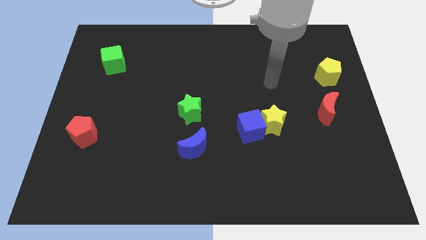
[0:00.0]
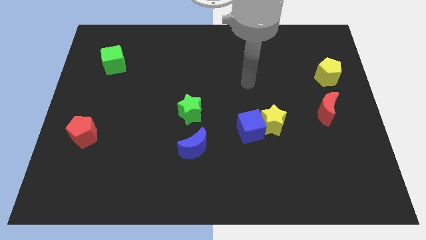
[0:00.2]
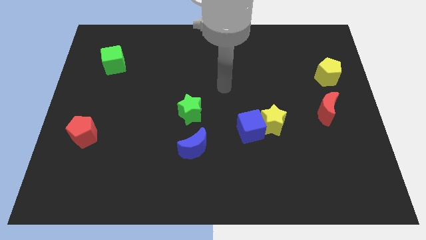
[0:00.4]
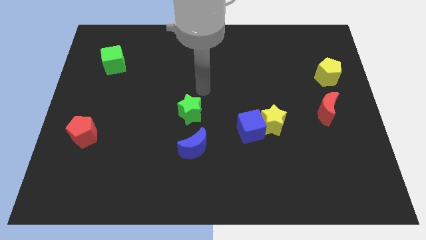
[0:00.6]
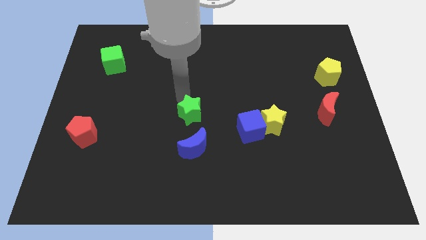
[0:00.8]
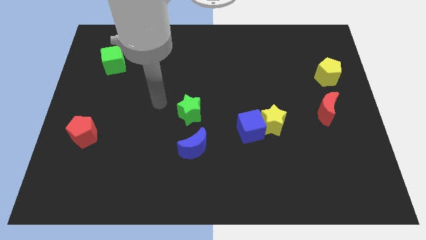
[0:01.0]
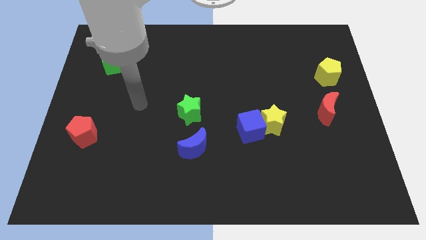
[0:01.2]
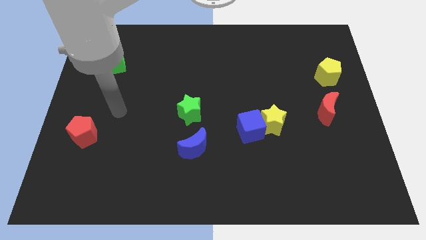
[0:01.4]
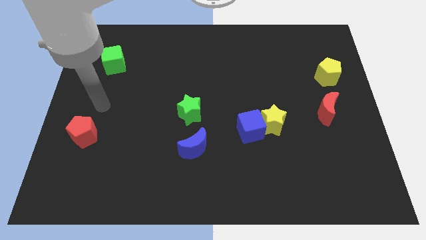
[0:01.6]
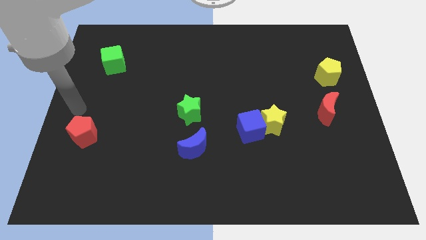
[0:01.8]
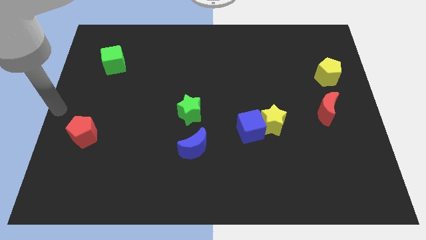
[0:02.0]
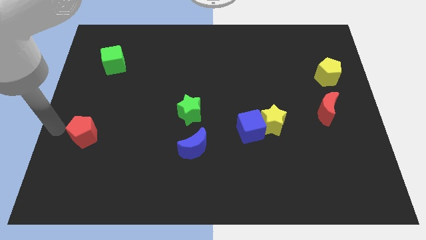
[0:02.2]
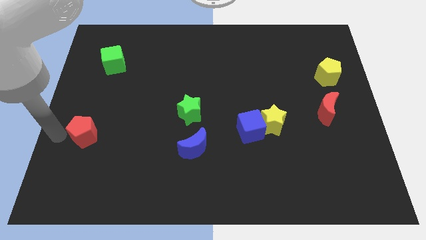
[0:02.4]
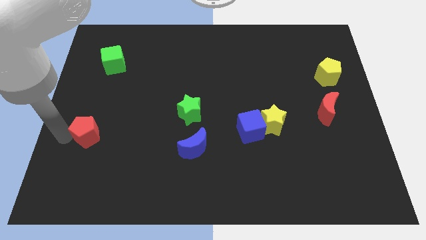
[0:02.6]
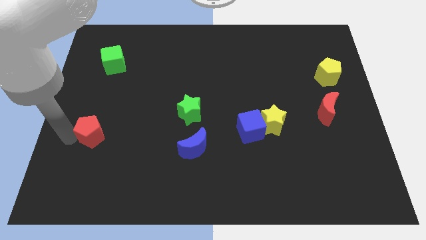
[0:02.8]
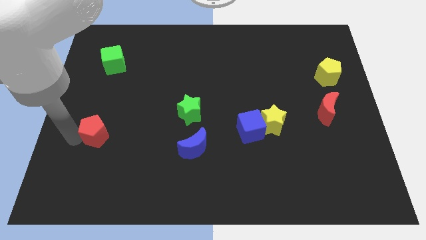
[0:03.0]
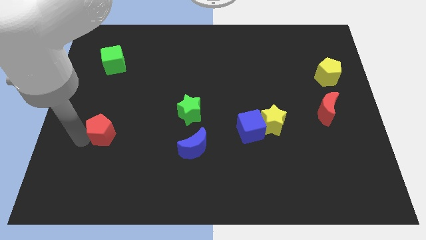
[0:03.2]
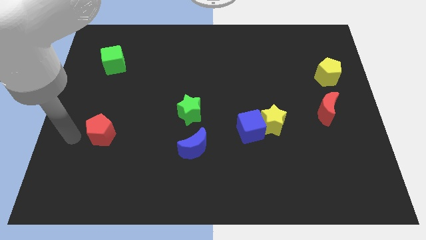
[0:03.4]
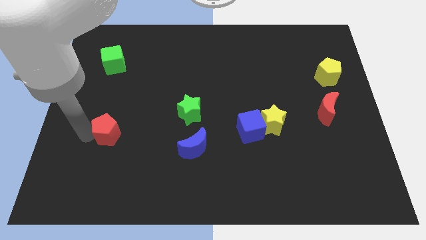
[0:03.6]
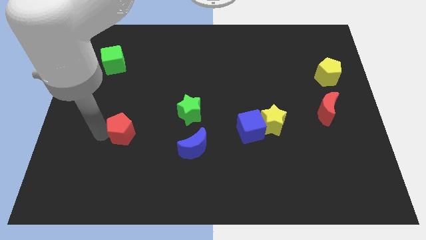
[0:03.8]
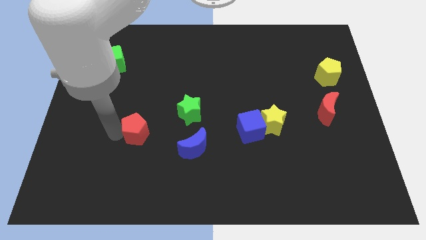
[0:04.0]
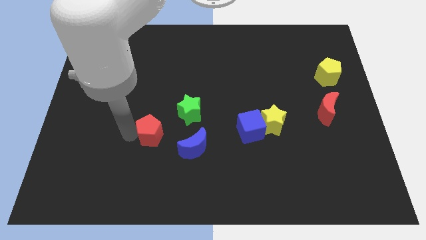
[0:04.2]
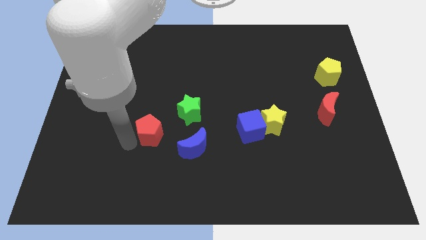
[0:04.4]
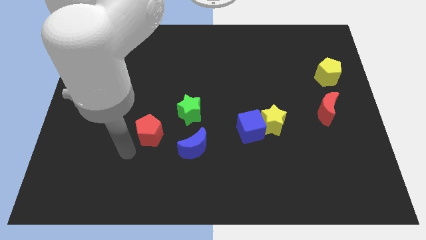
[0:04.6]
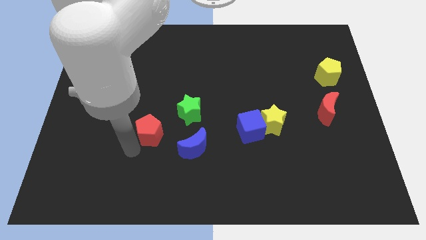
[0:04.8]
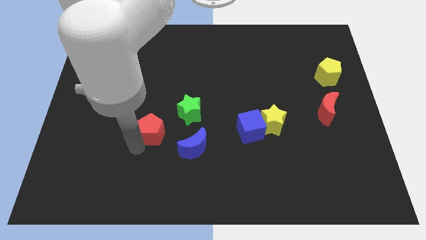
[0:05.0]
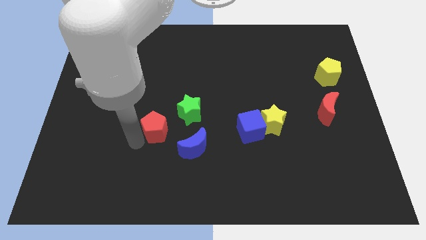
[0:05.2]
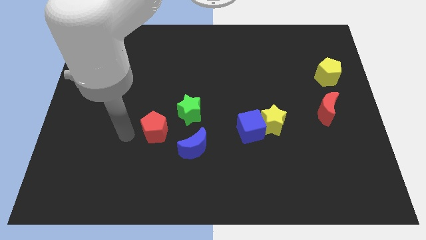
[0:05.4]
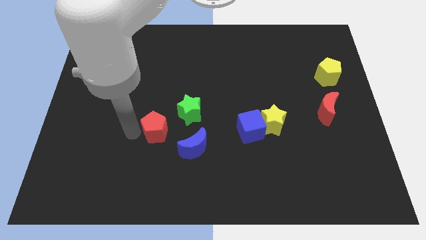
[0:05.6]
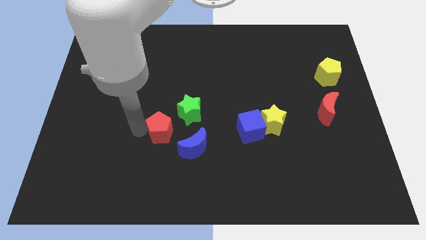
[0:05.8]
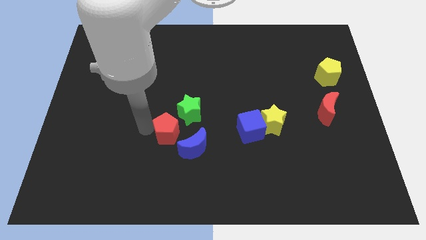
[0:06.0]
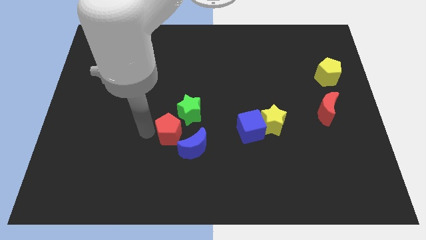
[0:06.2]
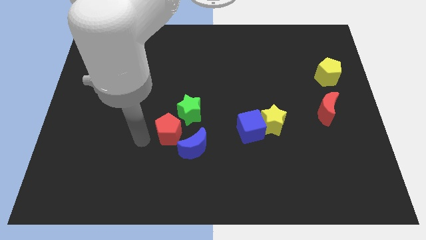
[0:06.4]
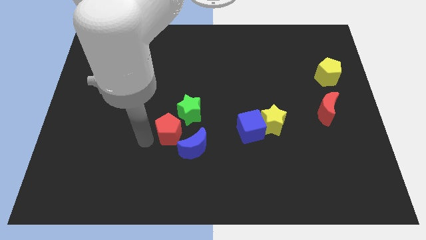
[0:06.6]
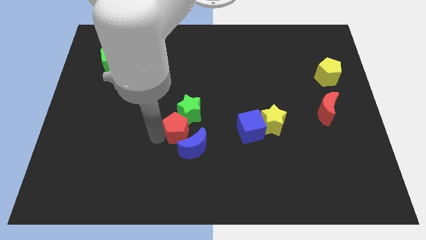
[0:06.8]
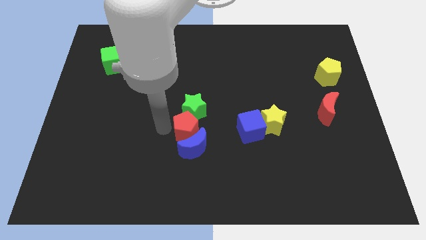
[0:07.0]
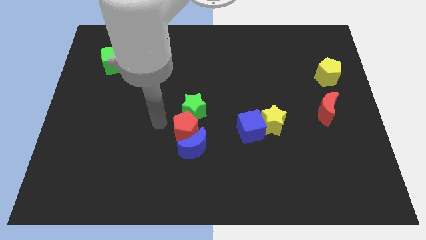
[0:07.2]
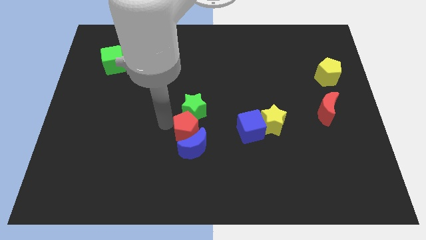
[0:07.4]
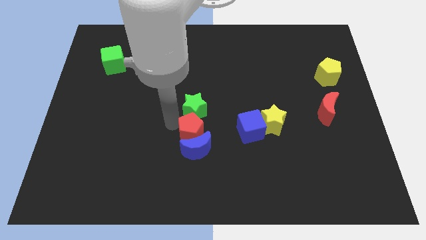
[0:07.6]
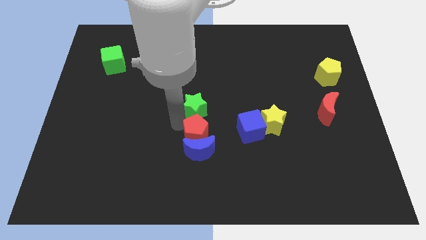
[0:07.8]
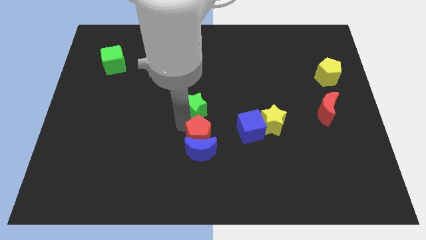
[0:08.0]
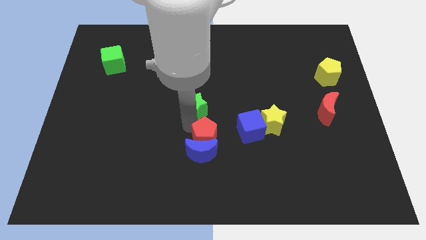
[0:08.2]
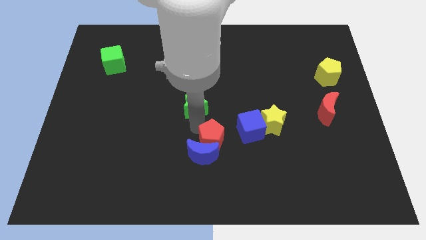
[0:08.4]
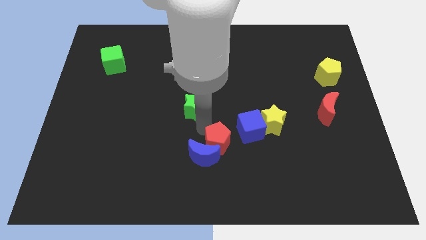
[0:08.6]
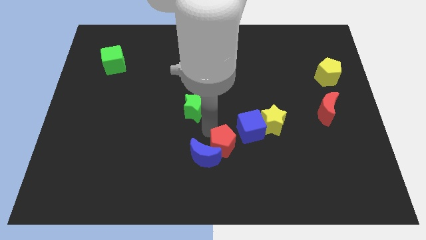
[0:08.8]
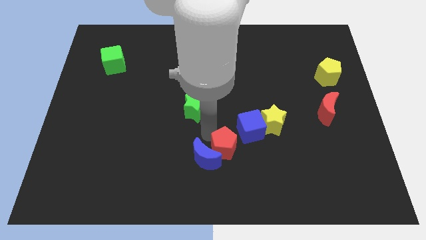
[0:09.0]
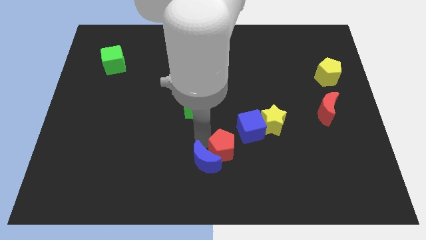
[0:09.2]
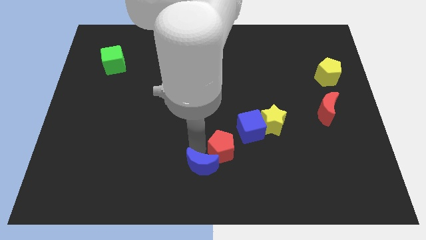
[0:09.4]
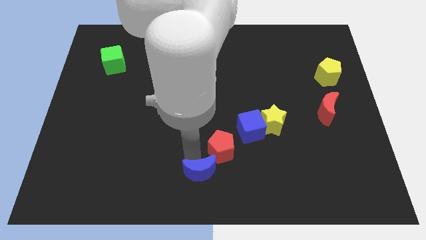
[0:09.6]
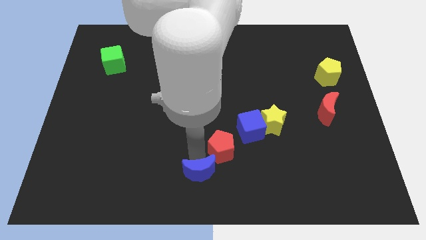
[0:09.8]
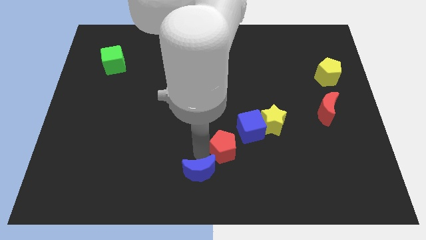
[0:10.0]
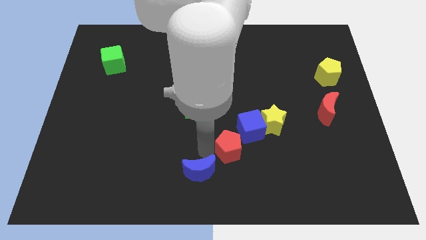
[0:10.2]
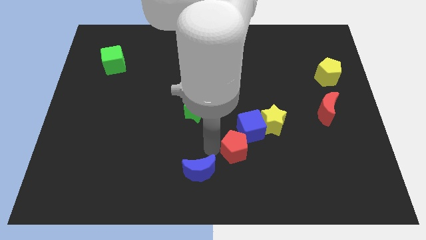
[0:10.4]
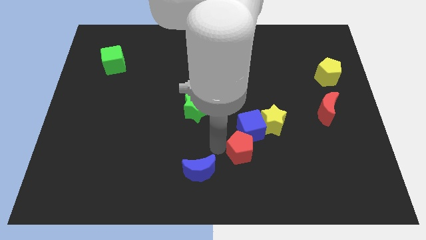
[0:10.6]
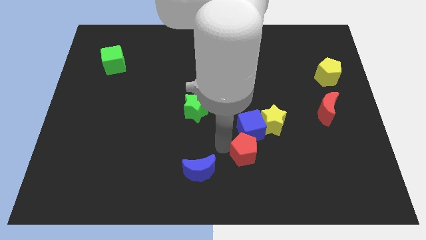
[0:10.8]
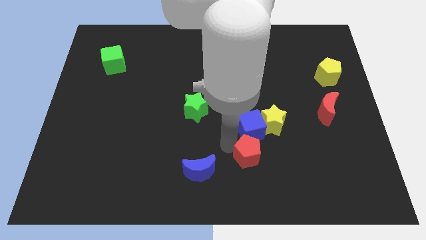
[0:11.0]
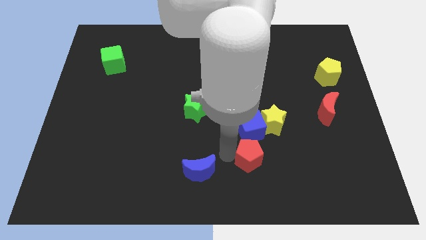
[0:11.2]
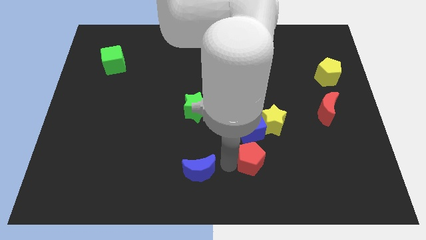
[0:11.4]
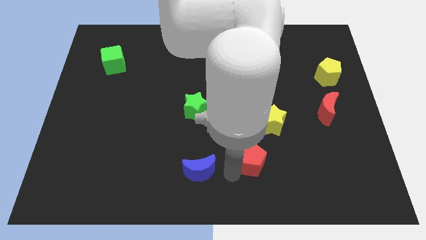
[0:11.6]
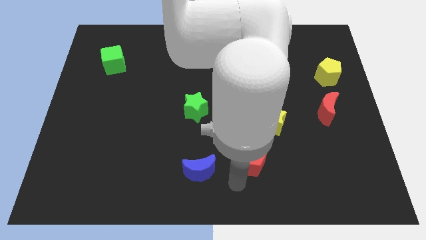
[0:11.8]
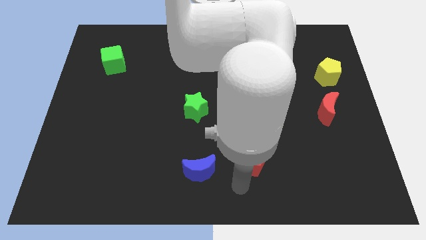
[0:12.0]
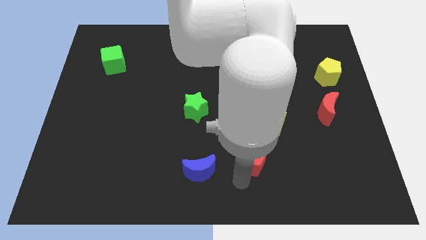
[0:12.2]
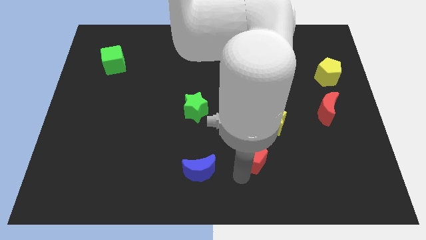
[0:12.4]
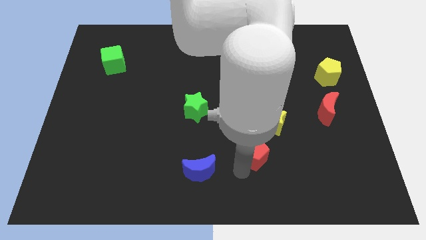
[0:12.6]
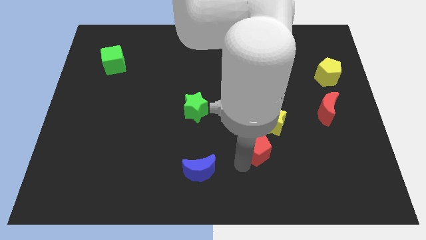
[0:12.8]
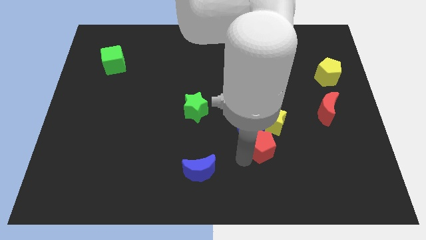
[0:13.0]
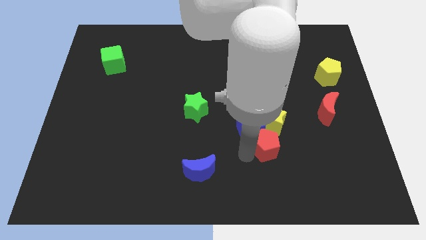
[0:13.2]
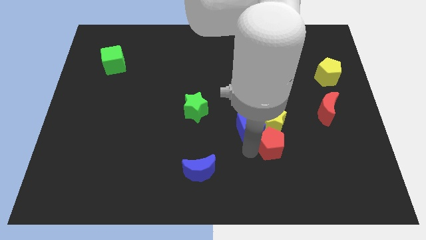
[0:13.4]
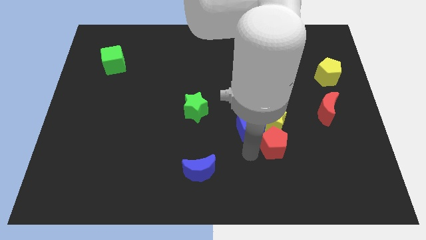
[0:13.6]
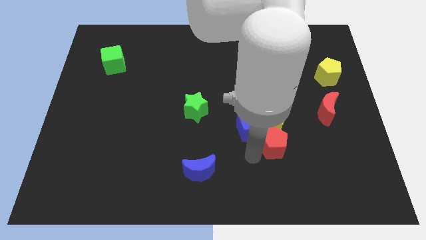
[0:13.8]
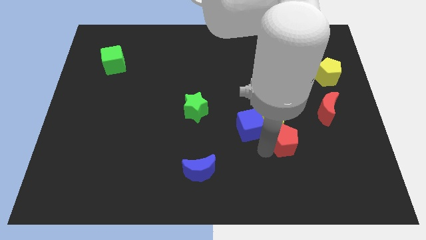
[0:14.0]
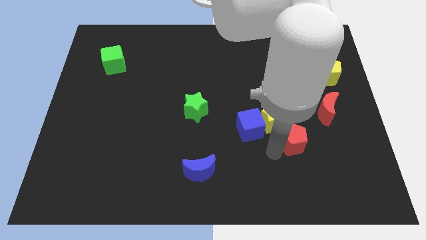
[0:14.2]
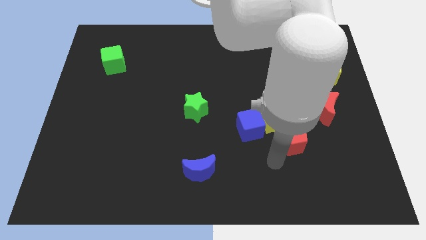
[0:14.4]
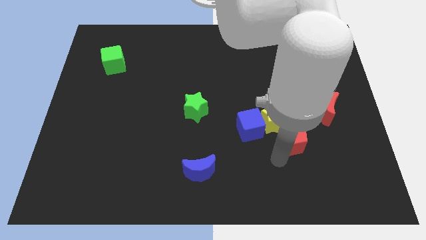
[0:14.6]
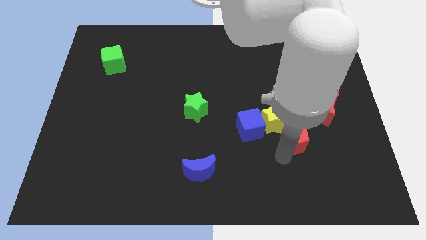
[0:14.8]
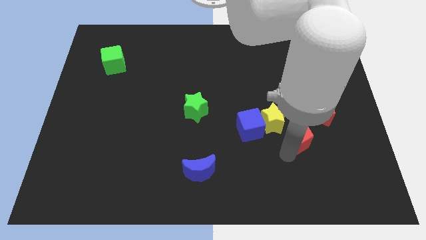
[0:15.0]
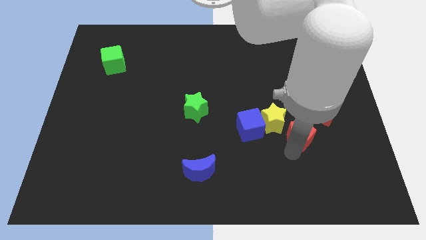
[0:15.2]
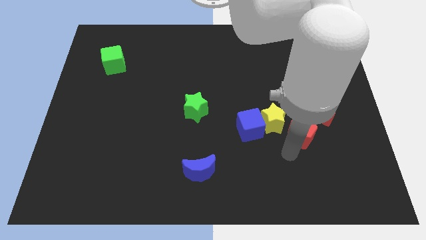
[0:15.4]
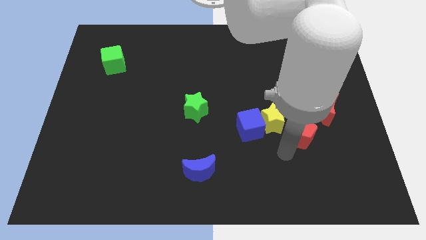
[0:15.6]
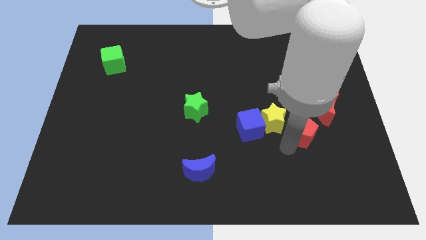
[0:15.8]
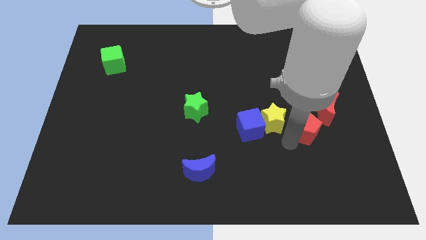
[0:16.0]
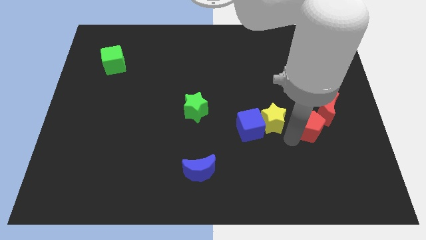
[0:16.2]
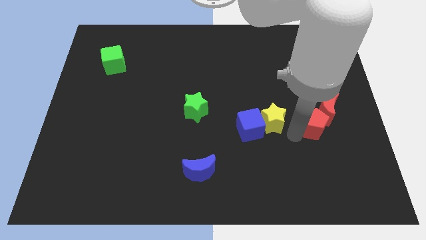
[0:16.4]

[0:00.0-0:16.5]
move the red pentagon next to the red moon
